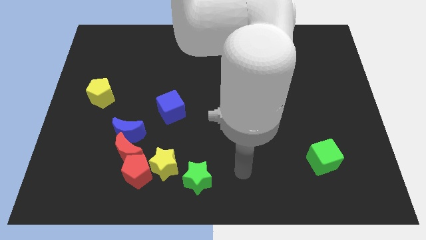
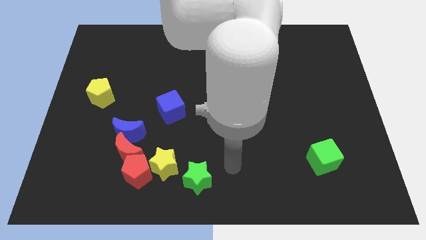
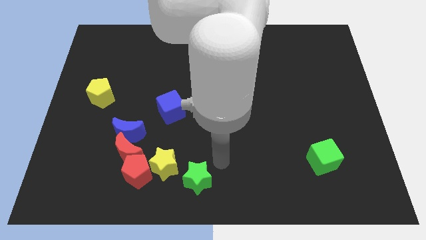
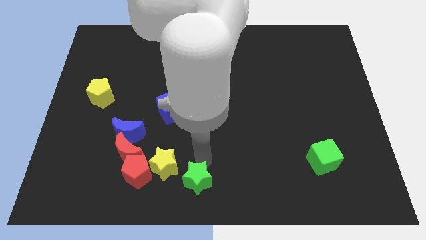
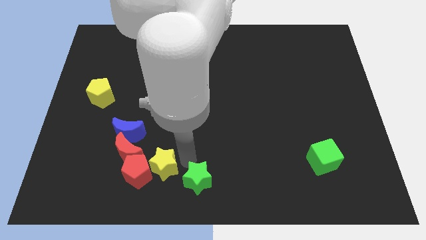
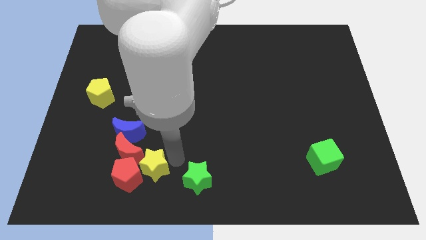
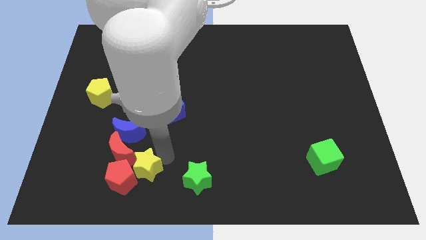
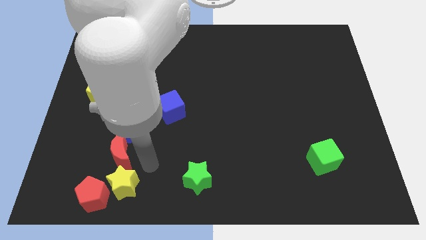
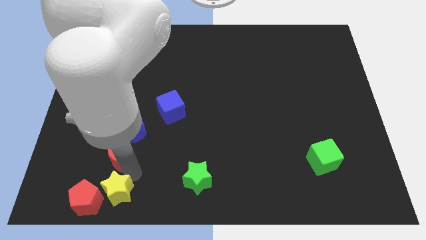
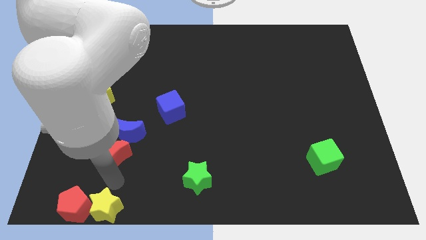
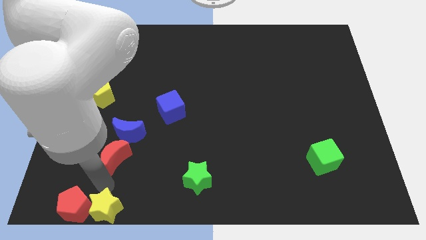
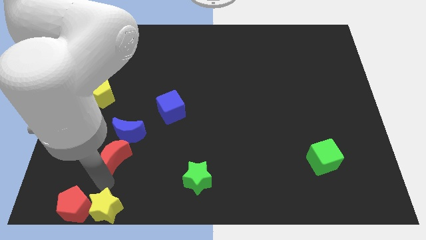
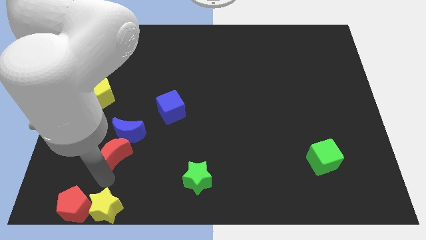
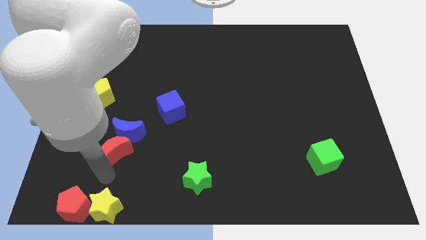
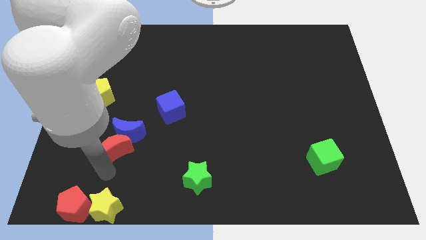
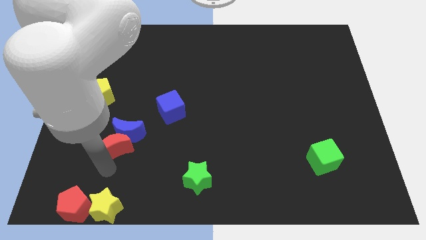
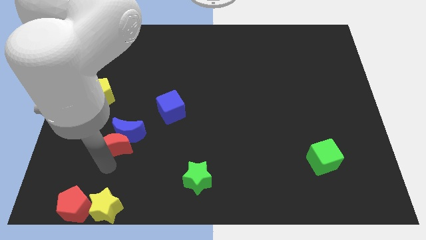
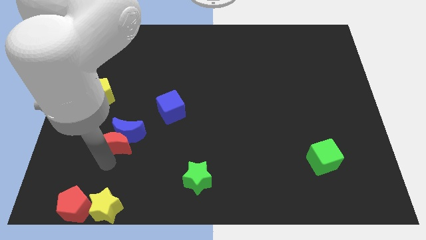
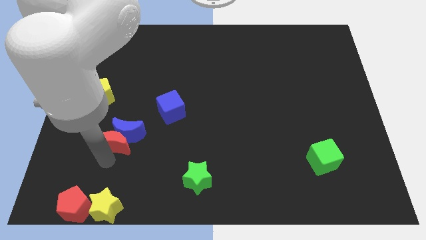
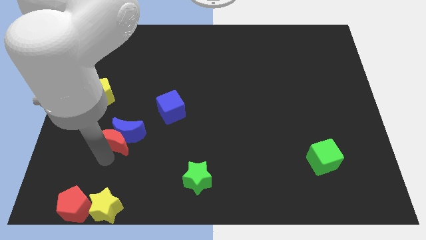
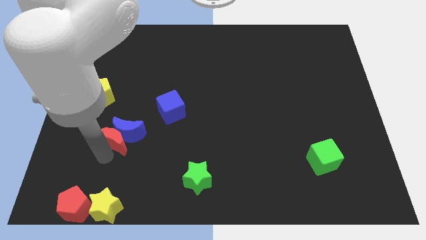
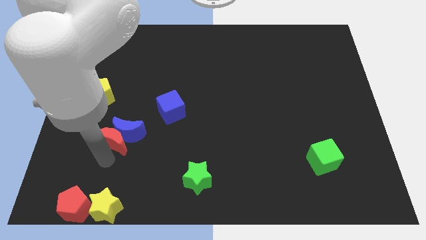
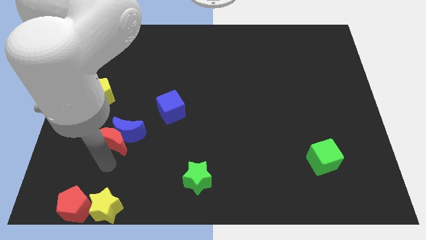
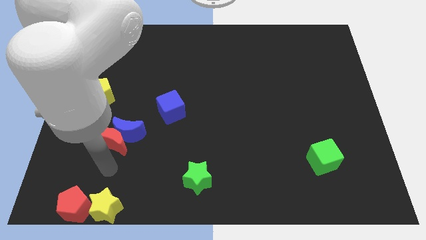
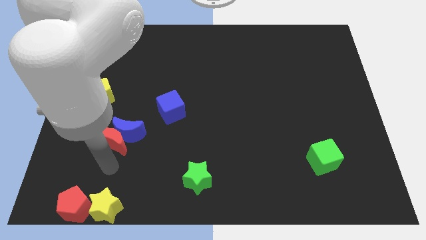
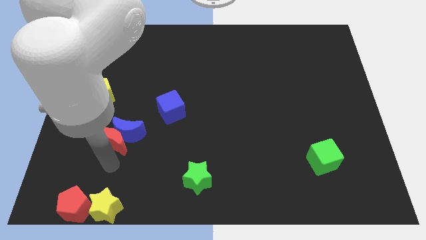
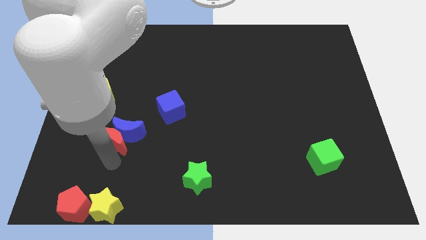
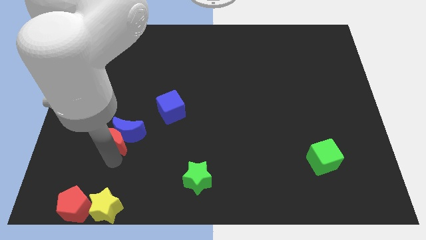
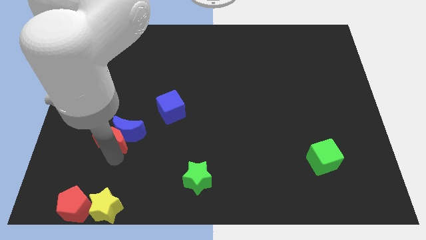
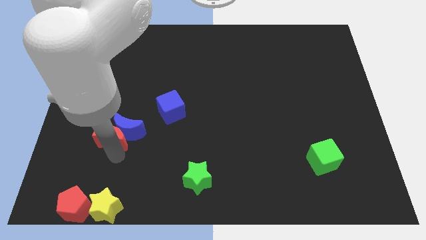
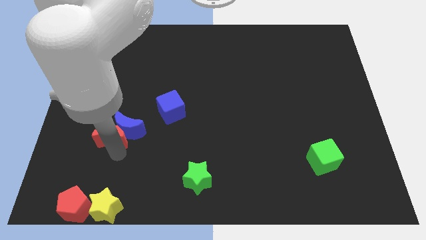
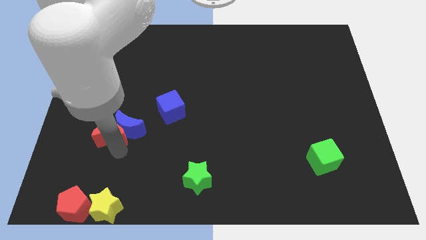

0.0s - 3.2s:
move the red moon away from the blue moon, red pentagon, and yellow star

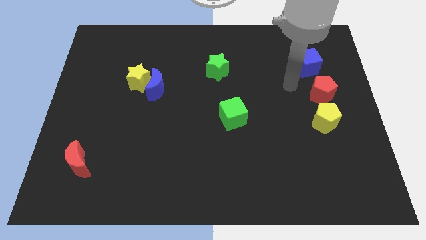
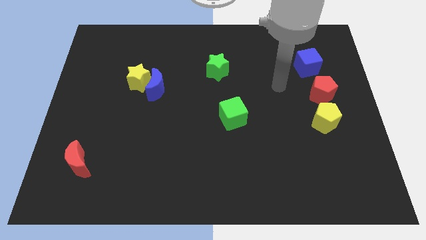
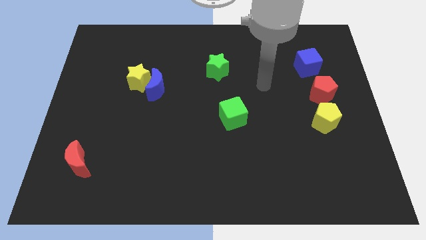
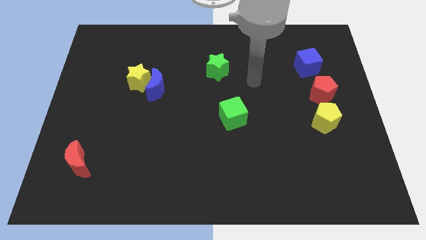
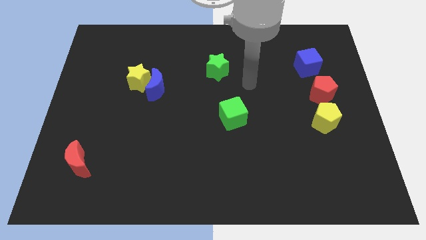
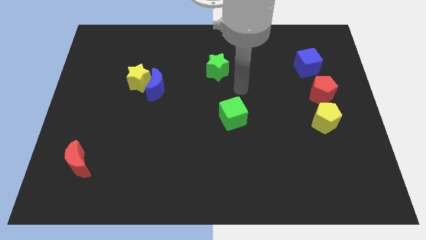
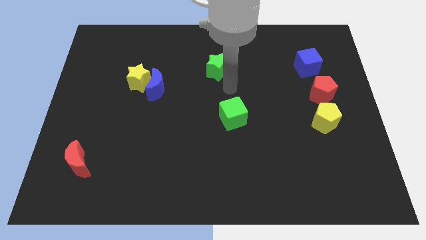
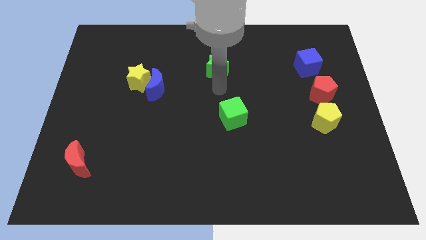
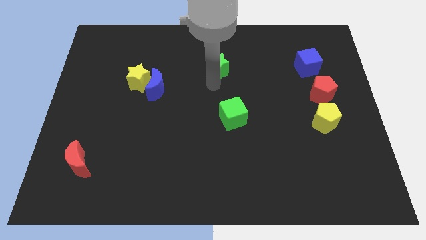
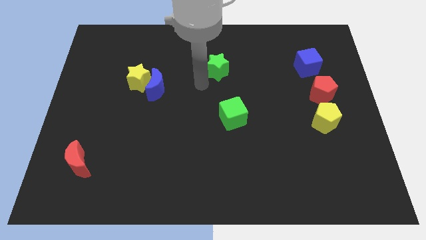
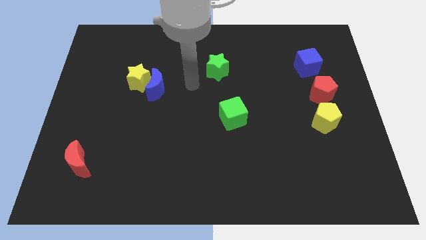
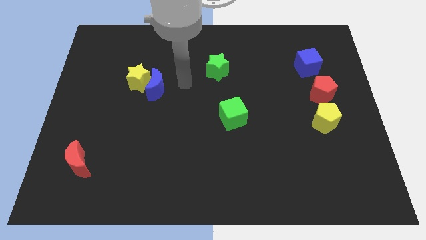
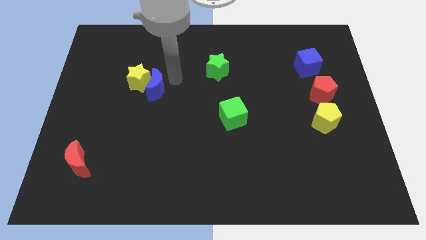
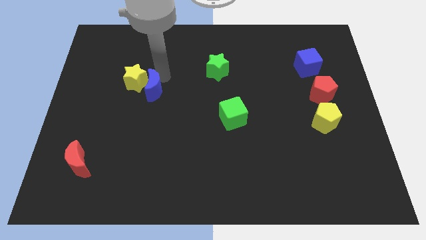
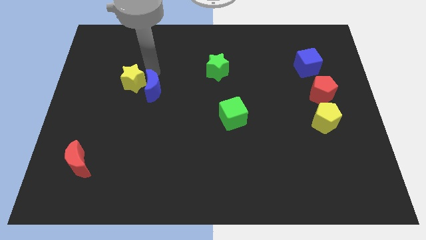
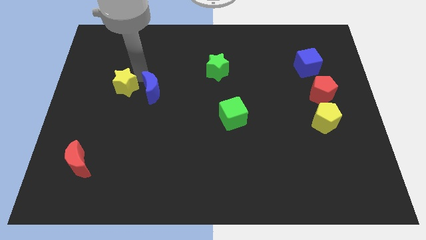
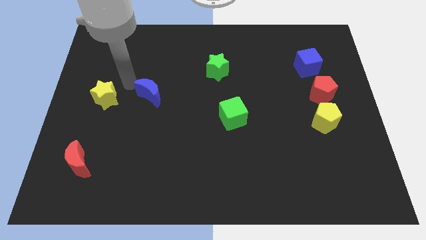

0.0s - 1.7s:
separate the blue moon from the yellow star

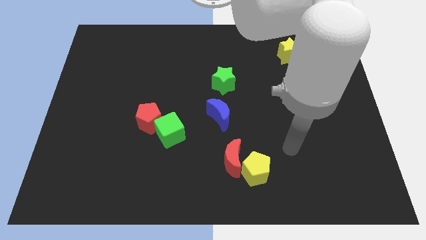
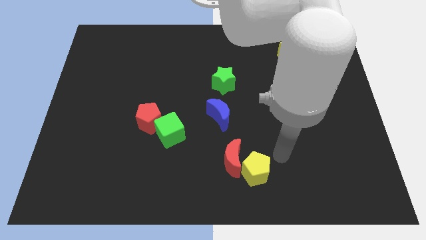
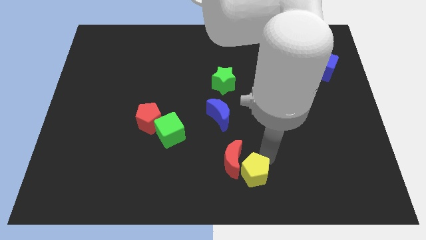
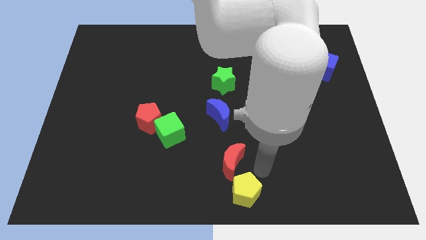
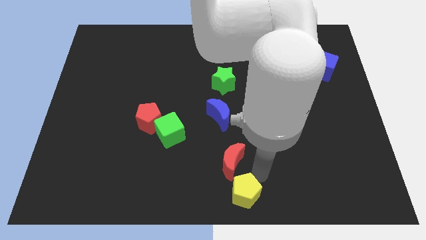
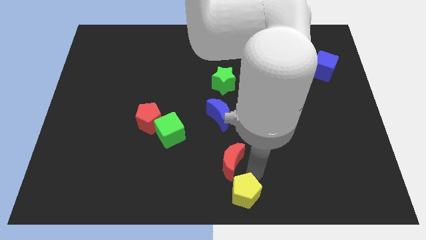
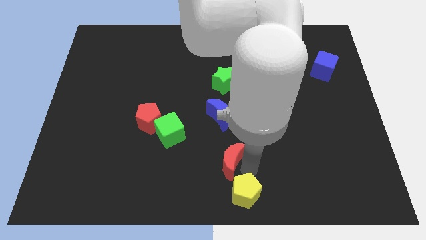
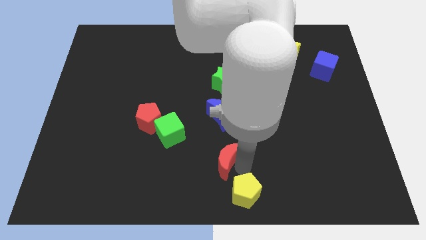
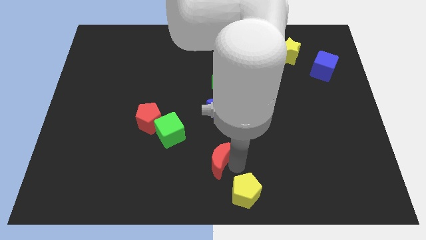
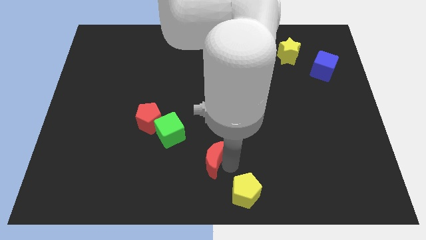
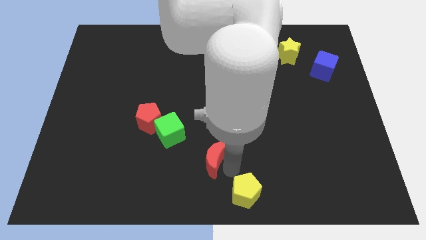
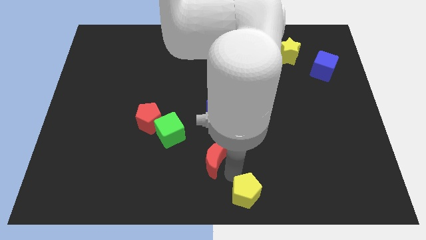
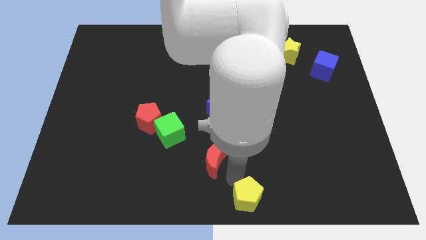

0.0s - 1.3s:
move the red moon away from the yellow pentagon

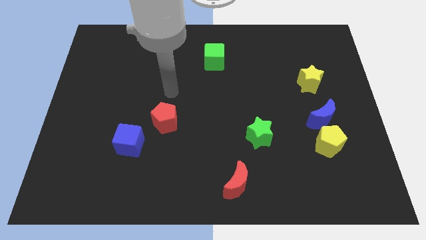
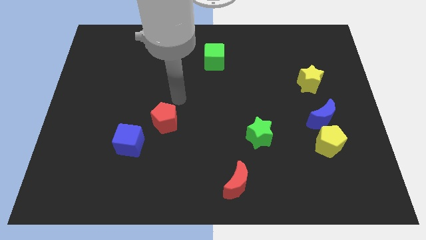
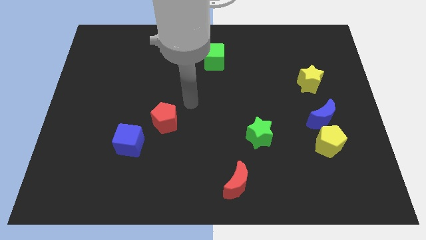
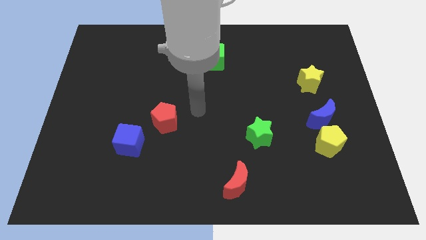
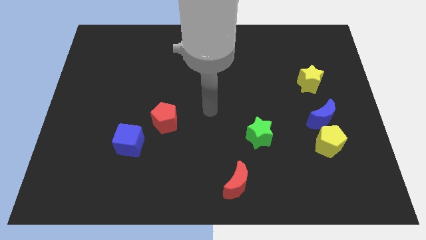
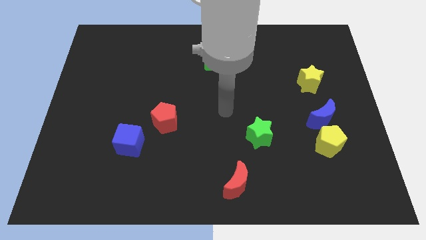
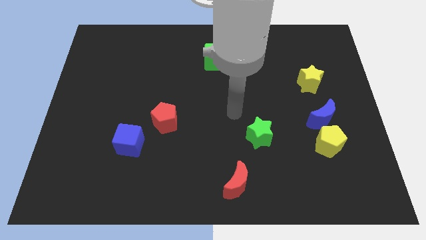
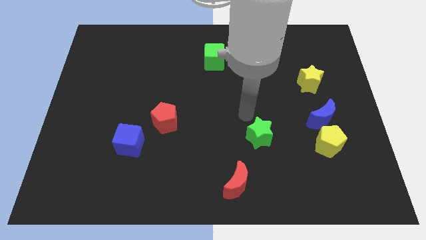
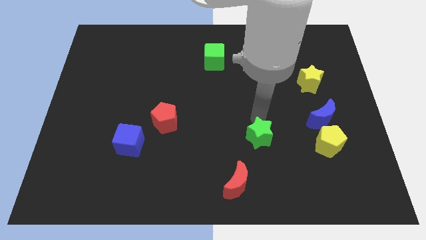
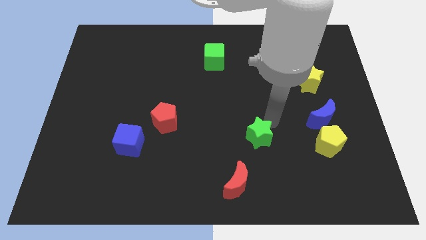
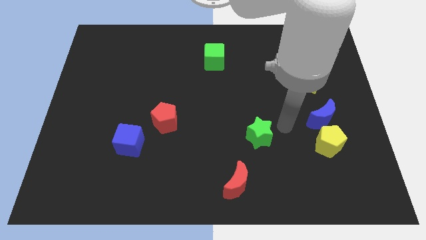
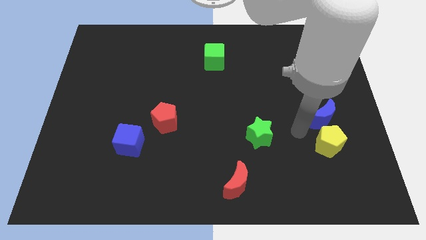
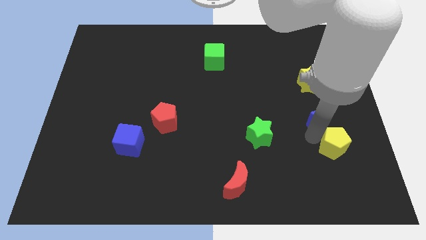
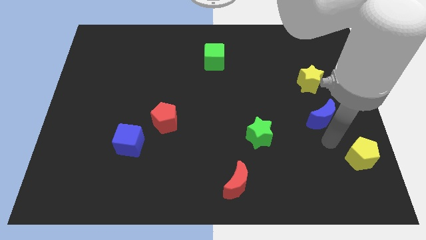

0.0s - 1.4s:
pull the blue moon apart from the yellow pentagon

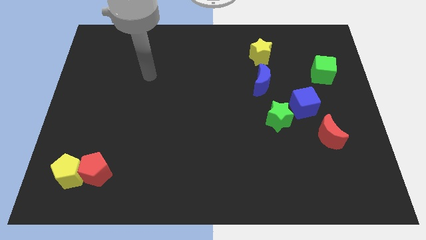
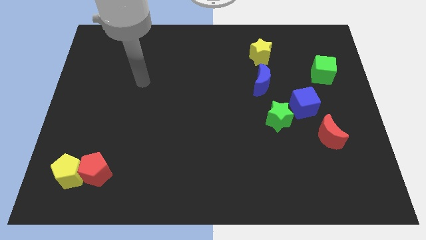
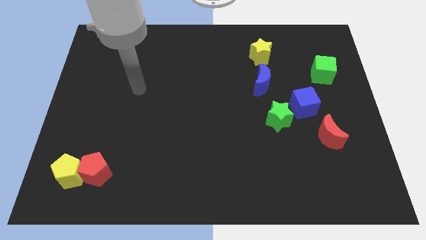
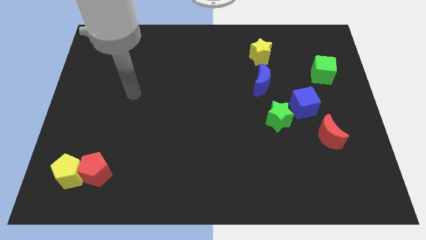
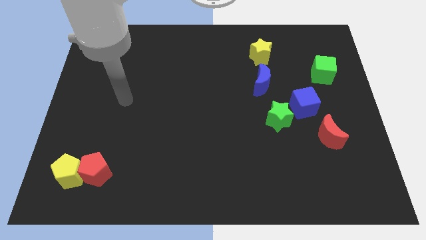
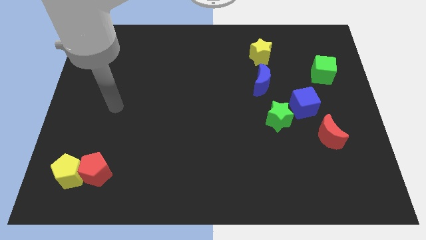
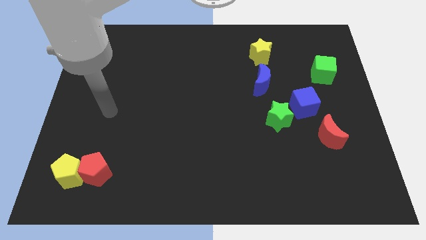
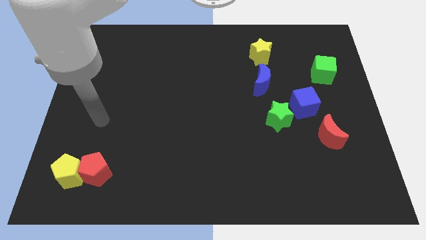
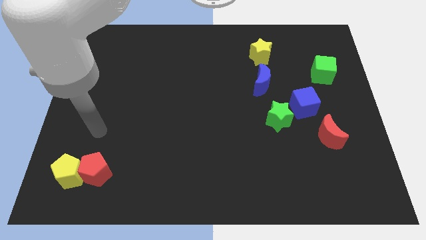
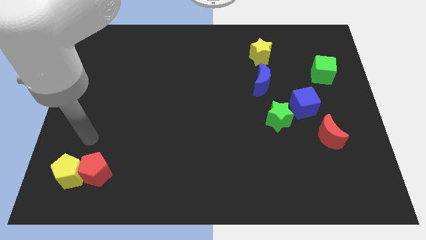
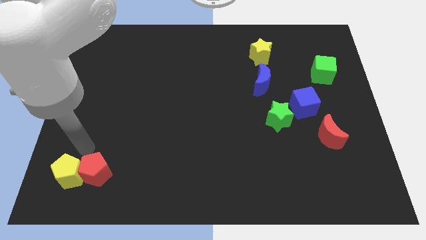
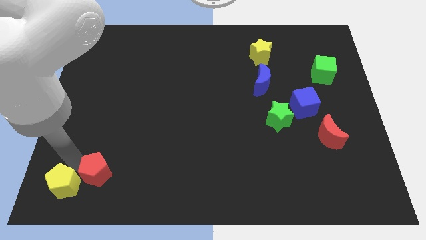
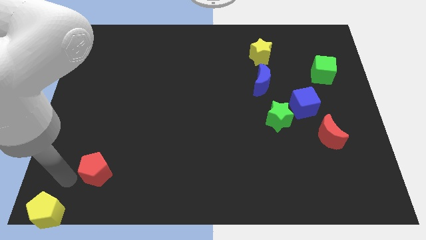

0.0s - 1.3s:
move the red pentagon away from the yellow pentagon

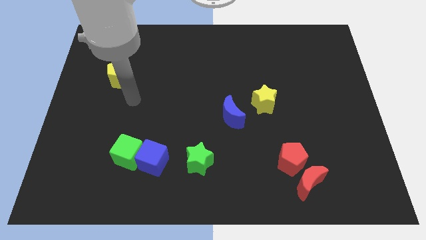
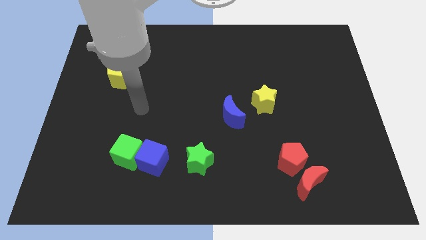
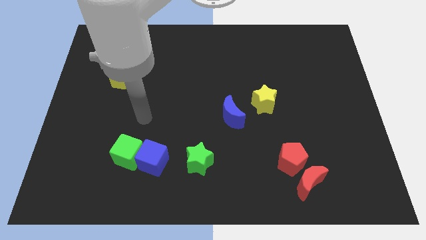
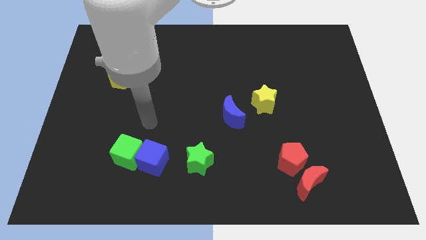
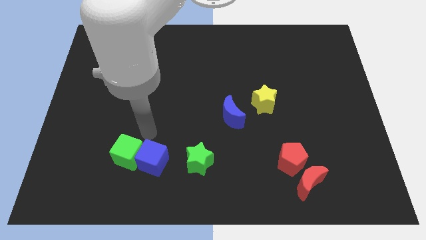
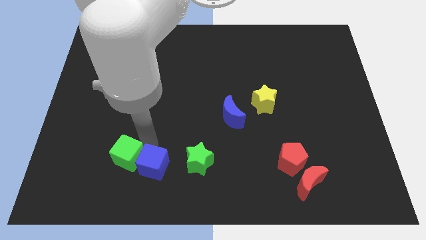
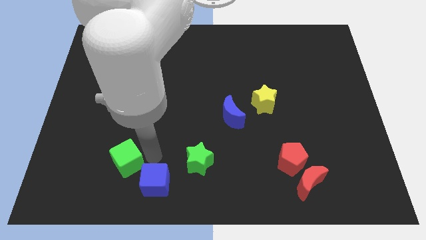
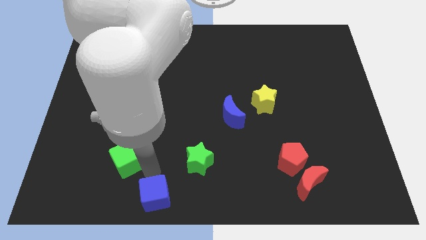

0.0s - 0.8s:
move the green cube away from the blue cube
